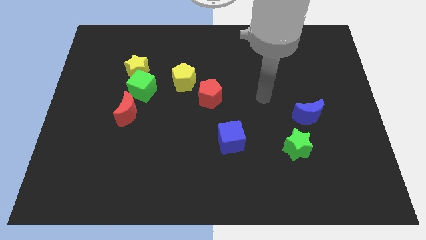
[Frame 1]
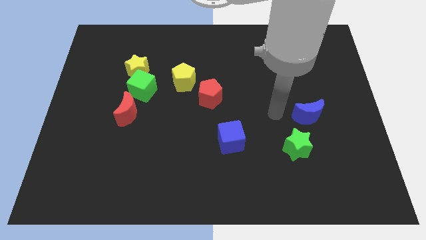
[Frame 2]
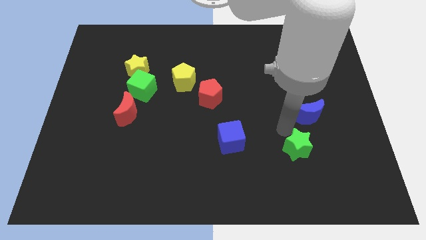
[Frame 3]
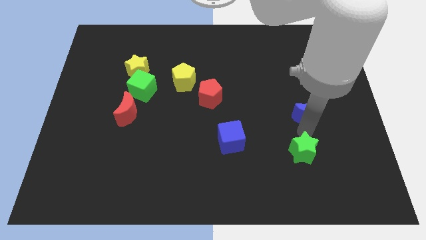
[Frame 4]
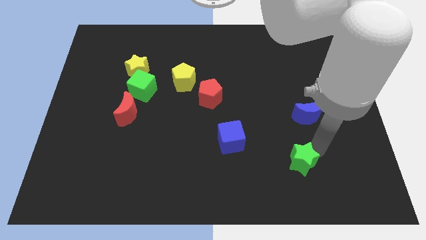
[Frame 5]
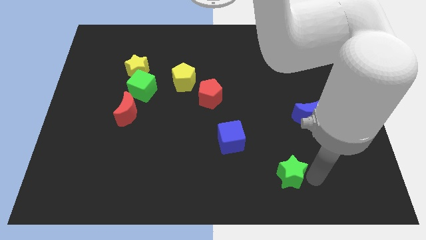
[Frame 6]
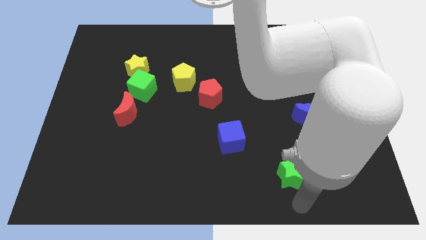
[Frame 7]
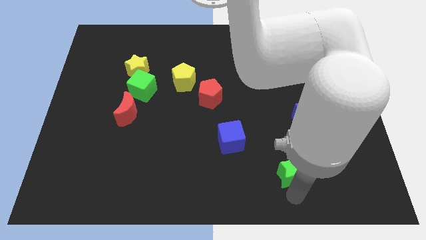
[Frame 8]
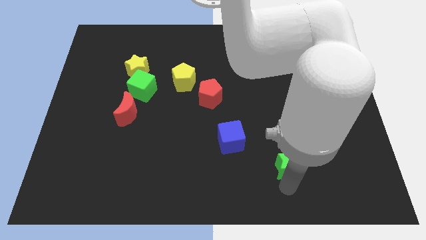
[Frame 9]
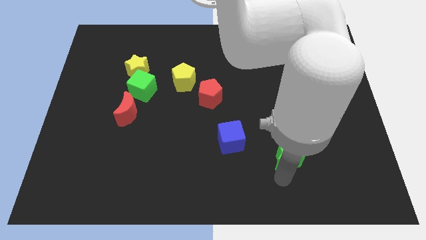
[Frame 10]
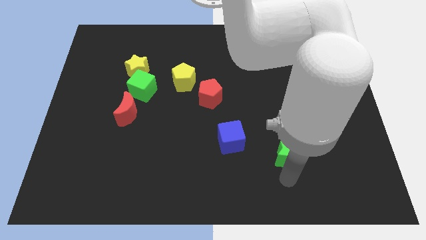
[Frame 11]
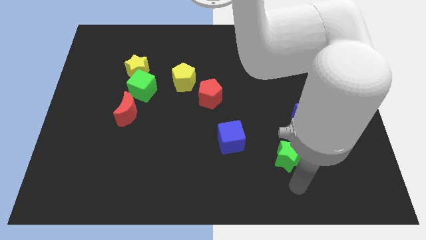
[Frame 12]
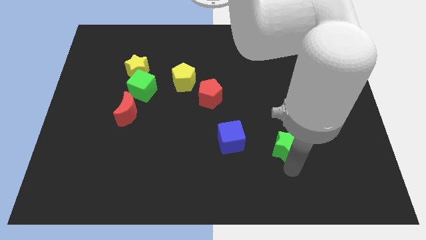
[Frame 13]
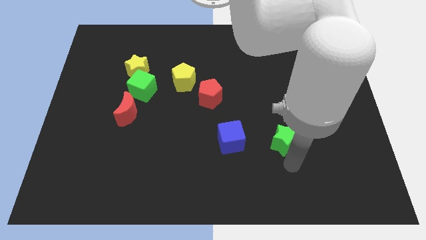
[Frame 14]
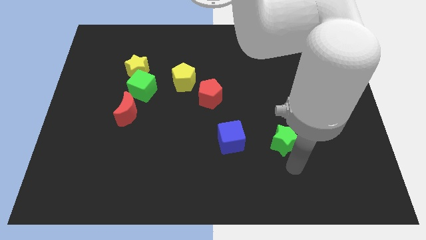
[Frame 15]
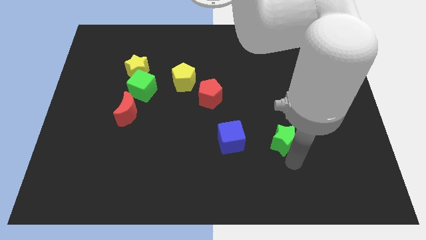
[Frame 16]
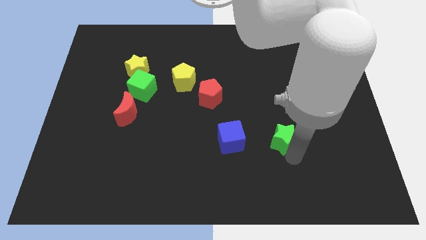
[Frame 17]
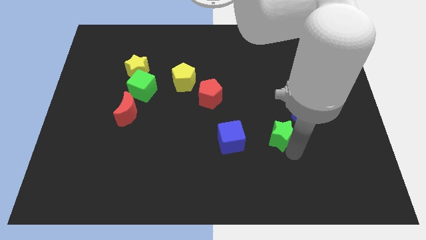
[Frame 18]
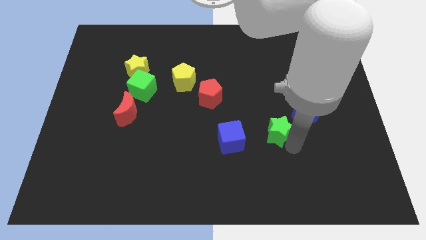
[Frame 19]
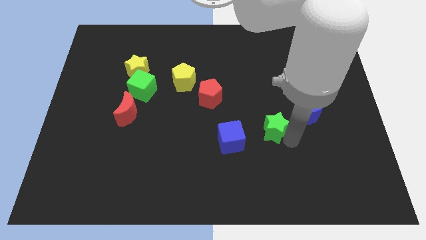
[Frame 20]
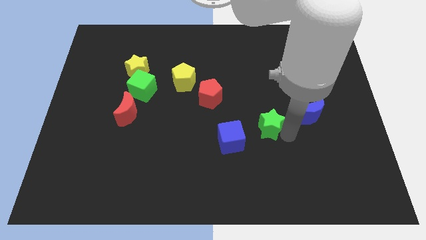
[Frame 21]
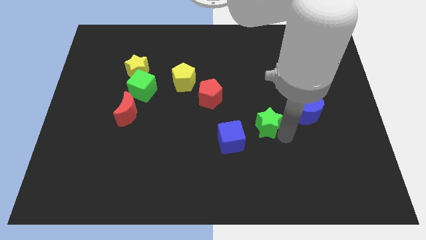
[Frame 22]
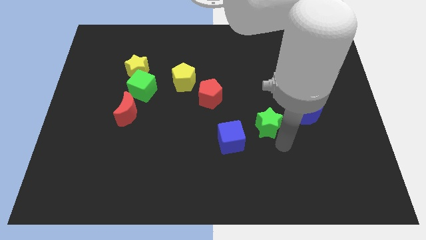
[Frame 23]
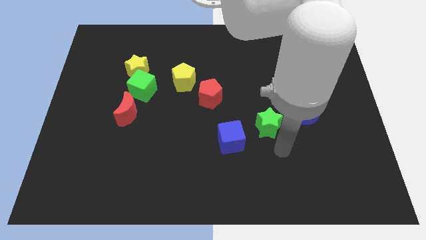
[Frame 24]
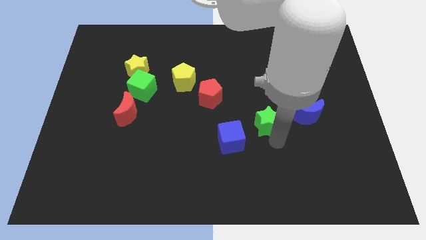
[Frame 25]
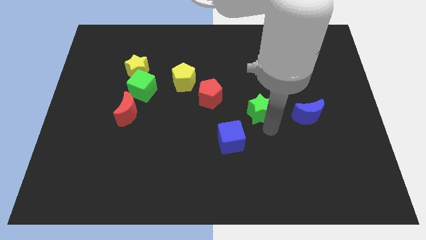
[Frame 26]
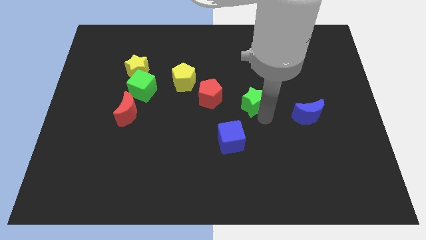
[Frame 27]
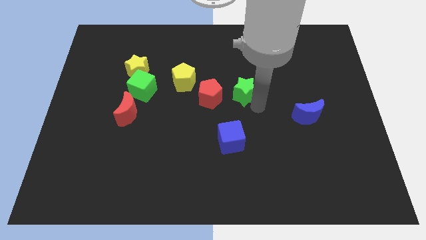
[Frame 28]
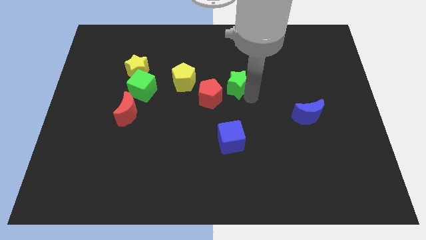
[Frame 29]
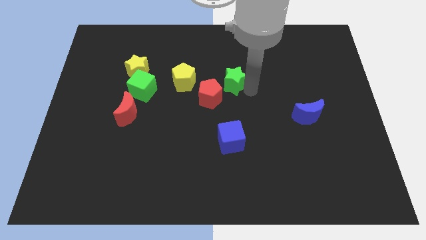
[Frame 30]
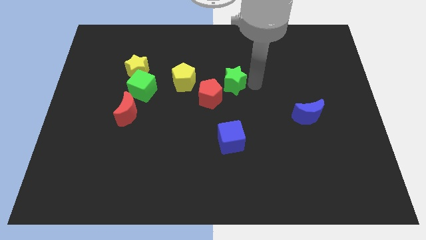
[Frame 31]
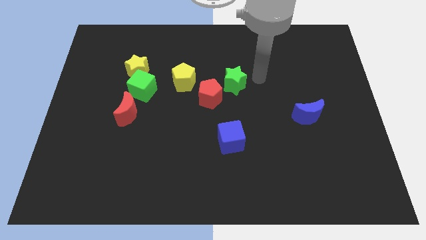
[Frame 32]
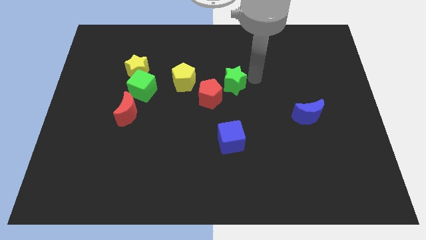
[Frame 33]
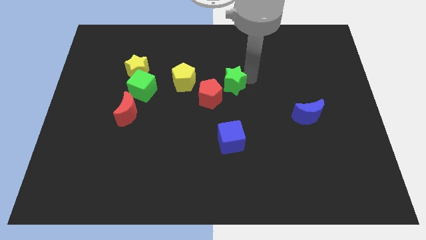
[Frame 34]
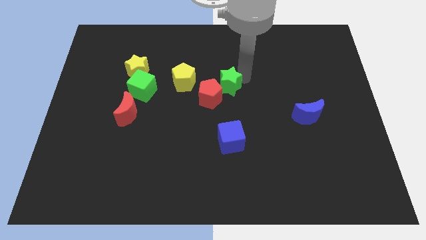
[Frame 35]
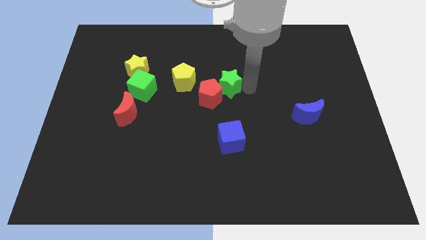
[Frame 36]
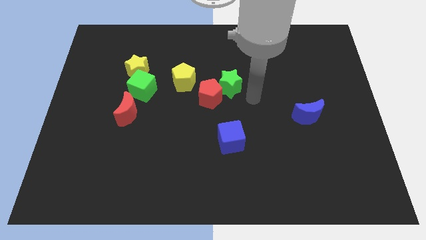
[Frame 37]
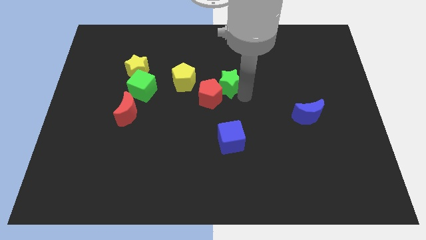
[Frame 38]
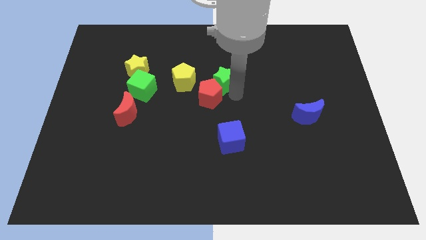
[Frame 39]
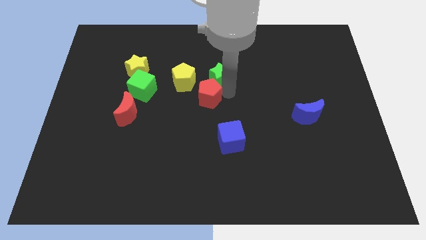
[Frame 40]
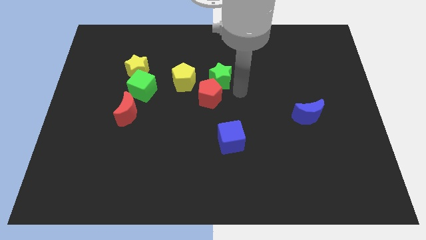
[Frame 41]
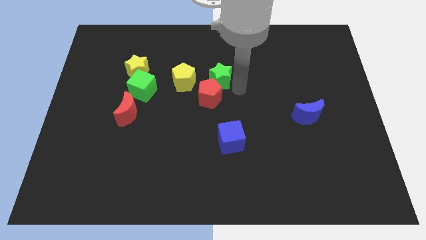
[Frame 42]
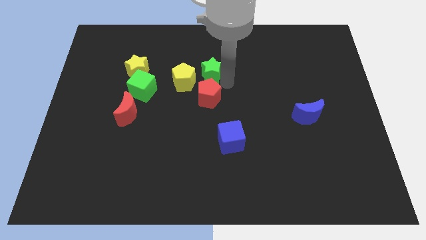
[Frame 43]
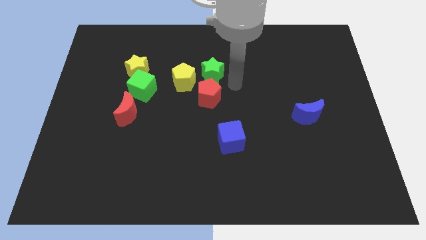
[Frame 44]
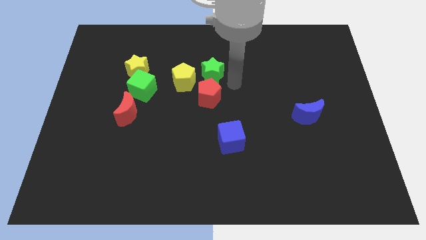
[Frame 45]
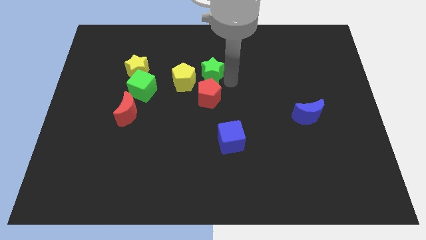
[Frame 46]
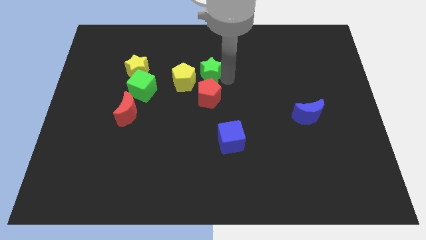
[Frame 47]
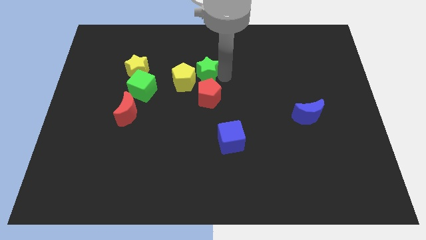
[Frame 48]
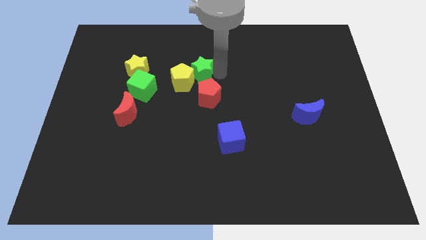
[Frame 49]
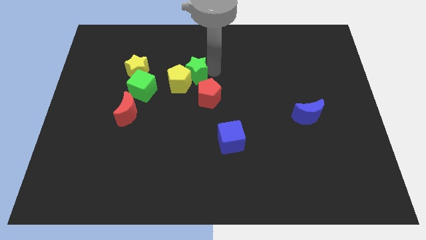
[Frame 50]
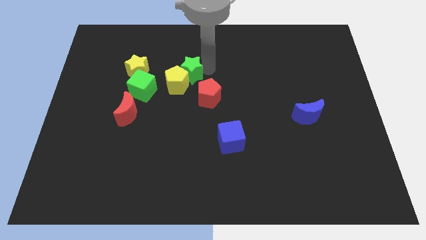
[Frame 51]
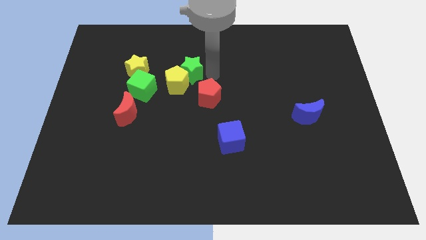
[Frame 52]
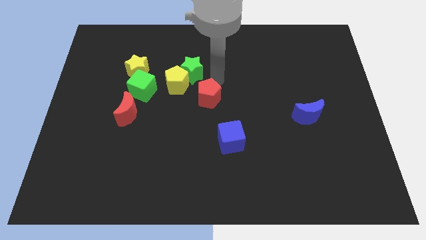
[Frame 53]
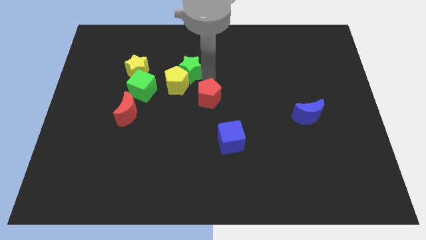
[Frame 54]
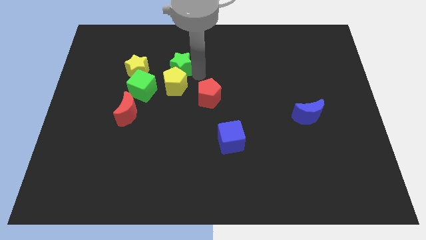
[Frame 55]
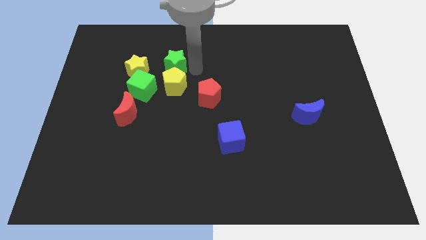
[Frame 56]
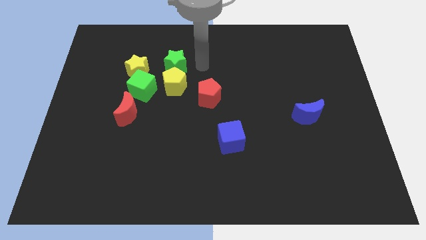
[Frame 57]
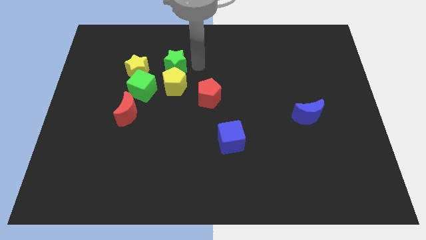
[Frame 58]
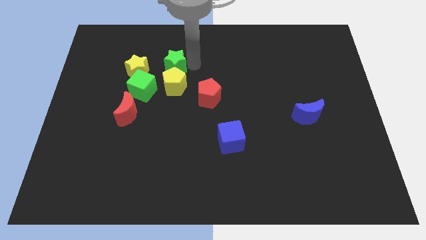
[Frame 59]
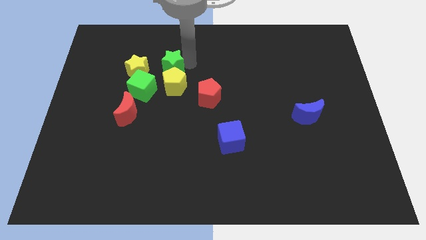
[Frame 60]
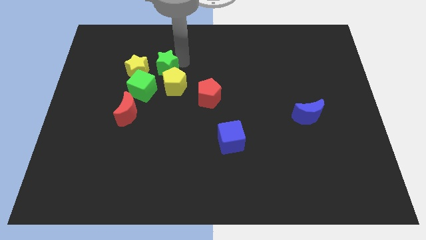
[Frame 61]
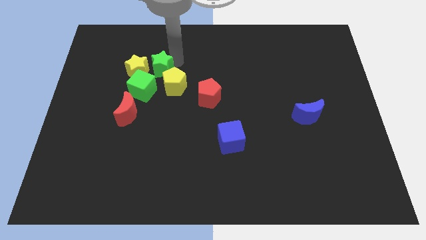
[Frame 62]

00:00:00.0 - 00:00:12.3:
push the green star close to the yellow star
